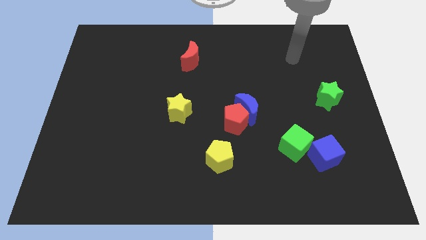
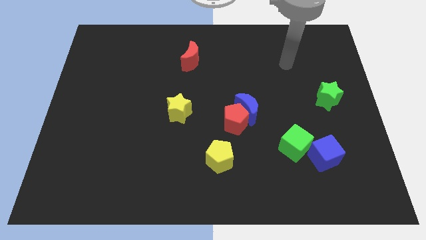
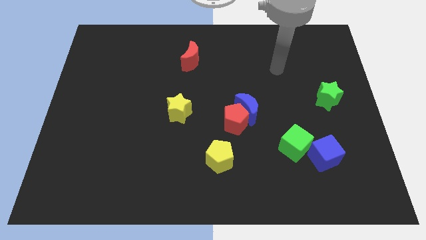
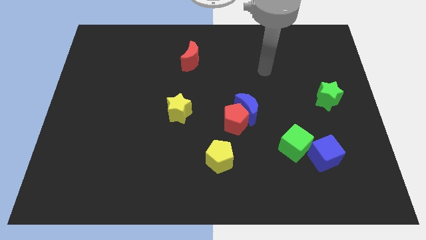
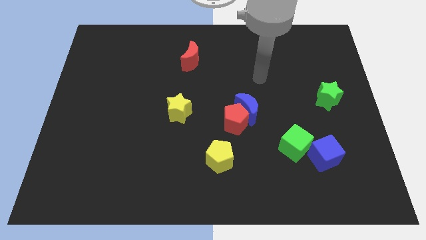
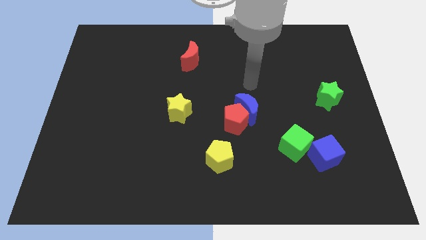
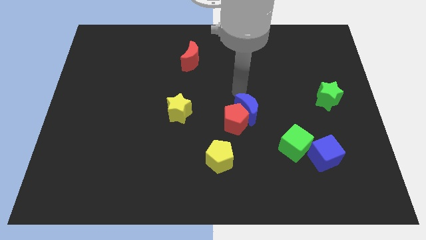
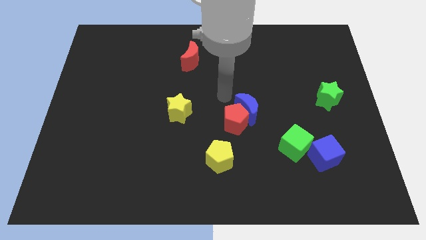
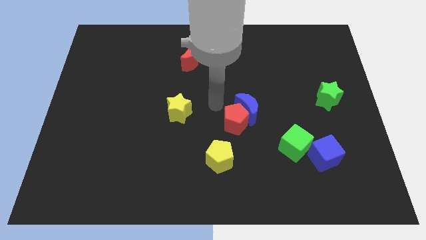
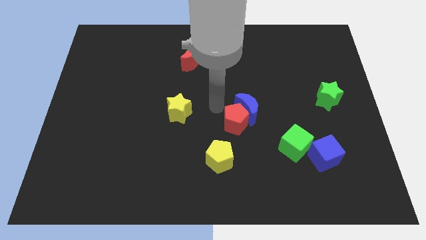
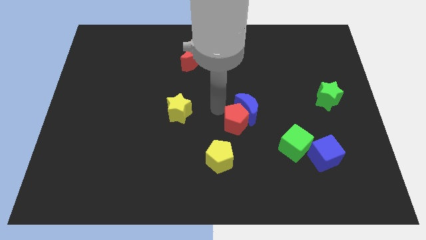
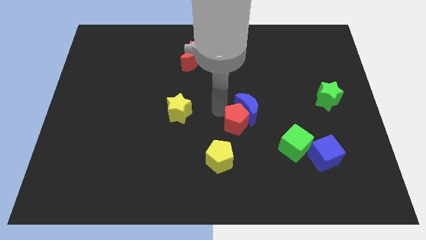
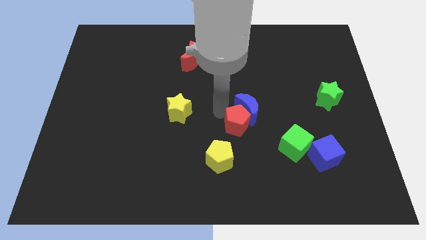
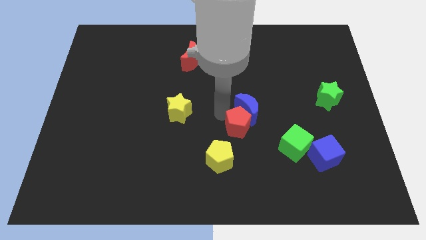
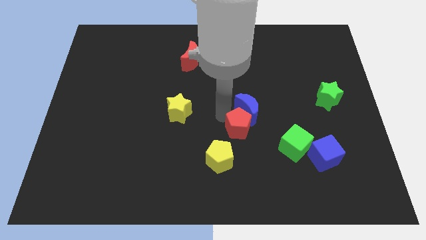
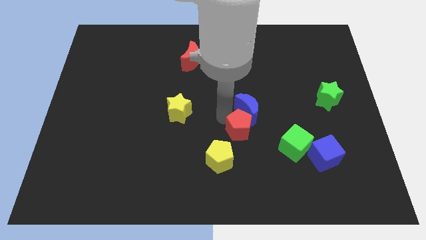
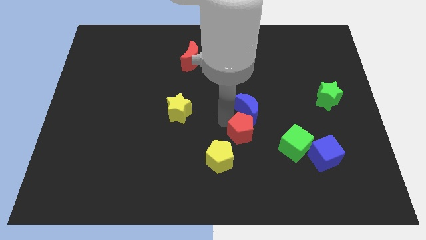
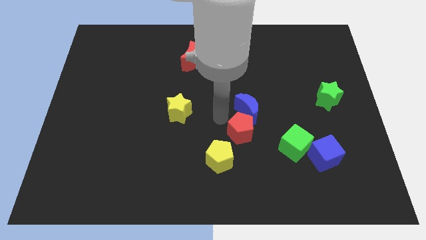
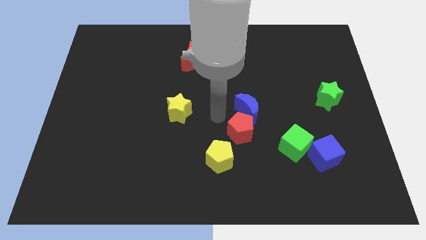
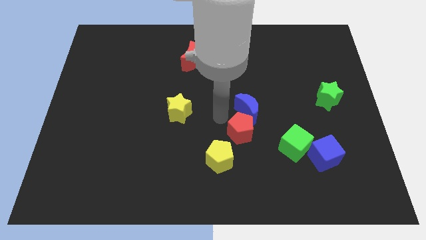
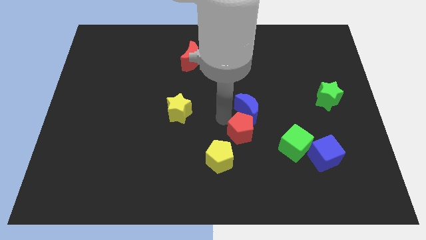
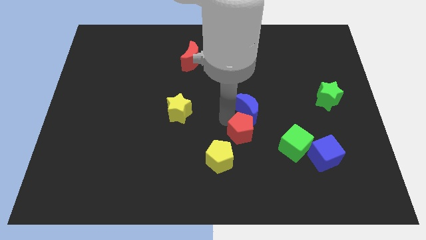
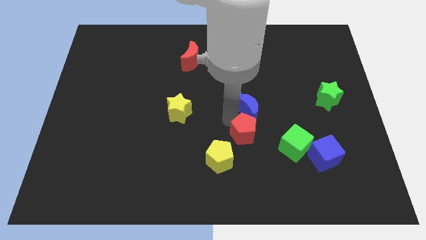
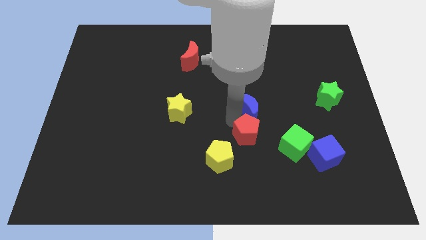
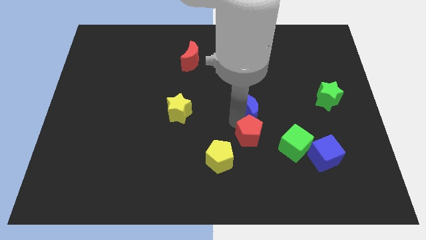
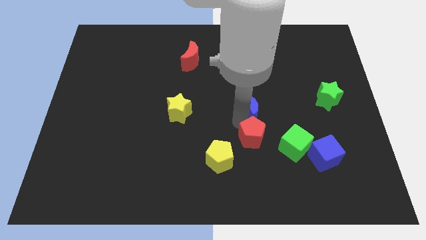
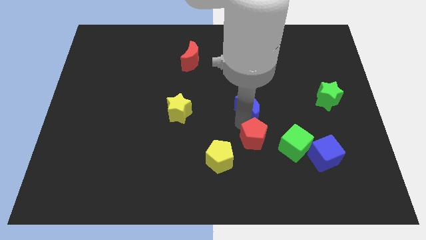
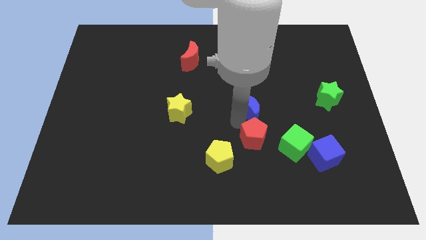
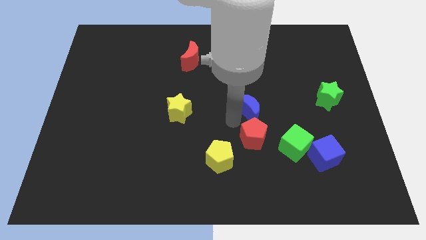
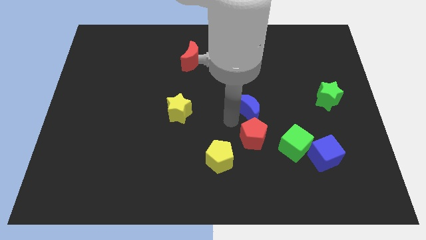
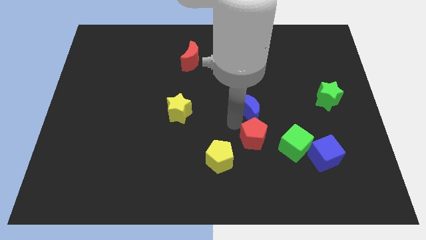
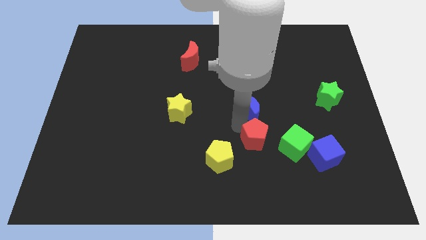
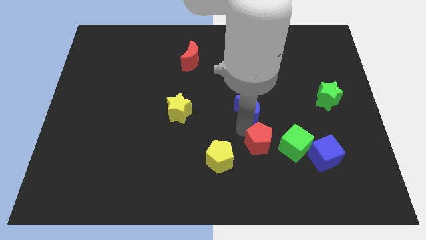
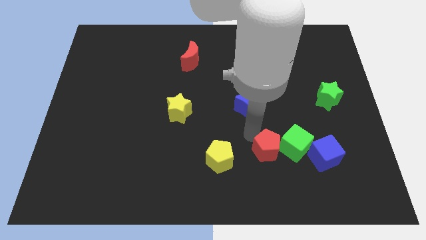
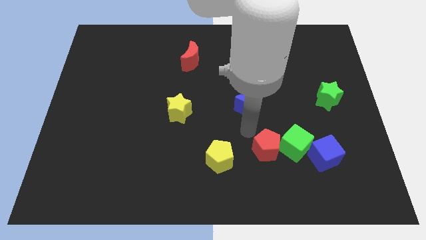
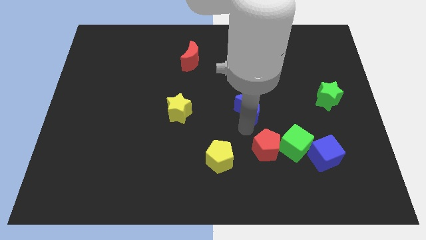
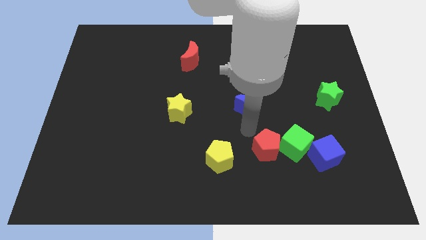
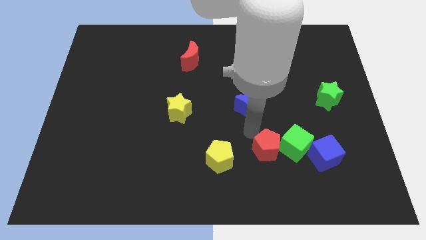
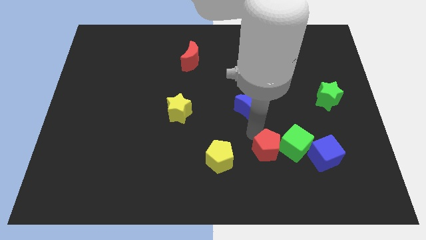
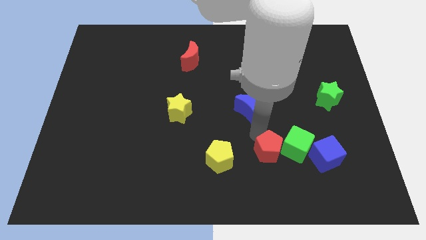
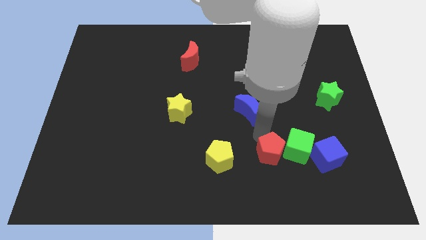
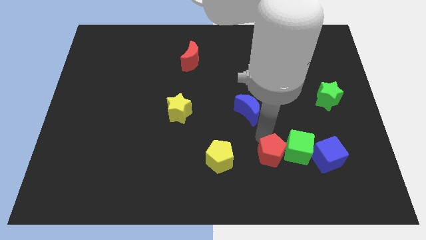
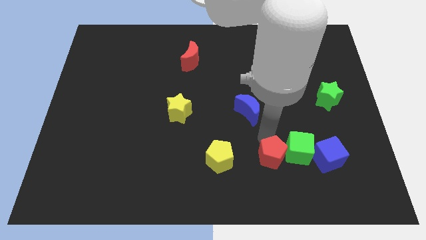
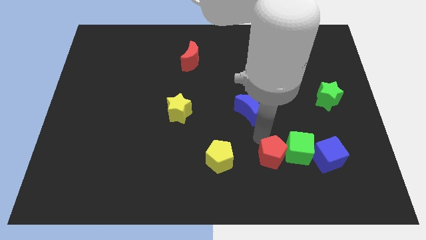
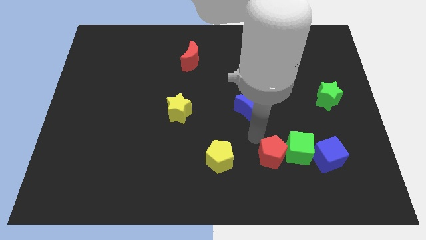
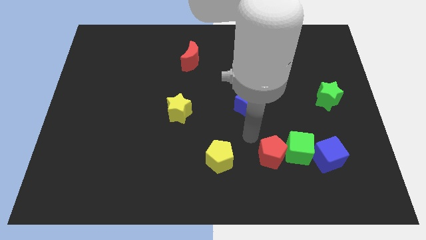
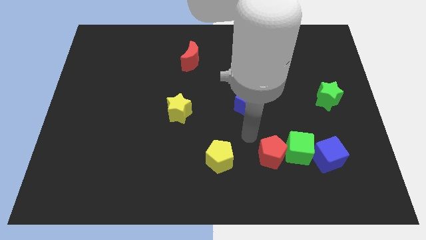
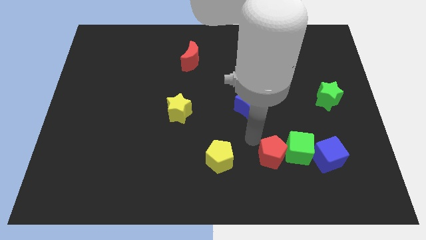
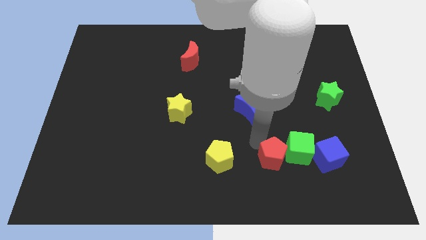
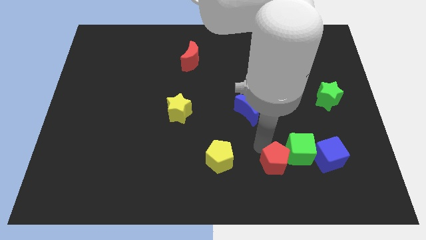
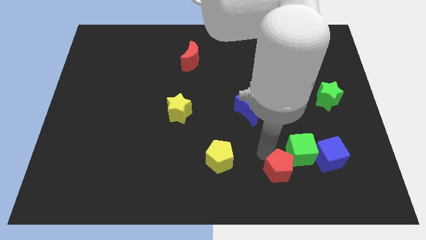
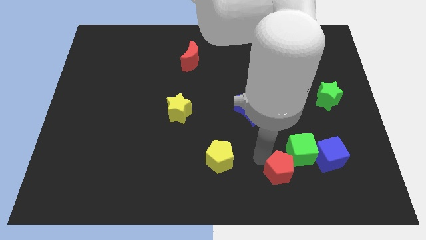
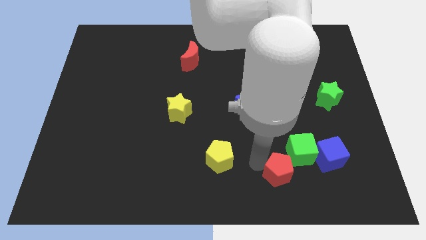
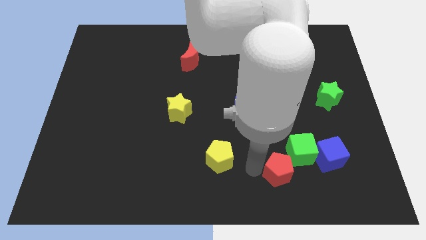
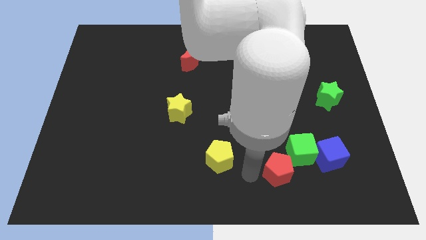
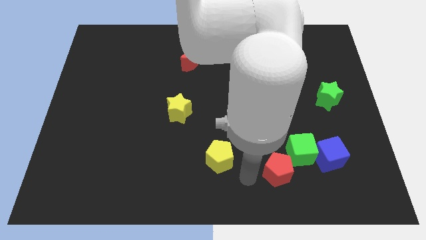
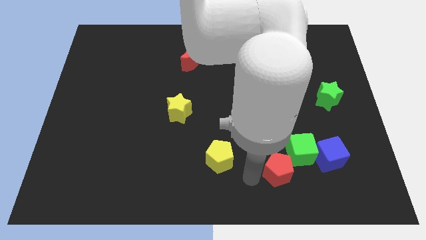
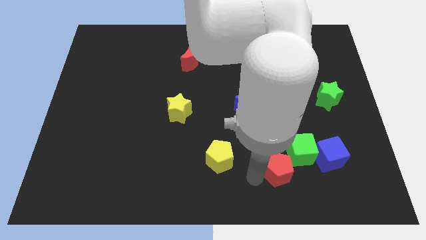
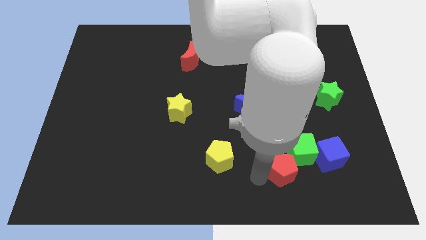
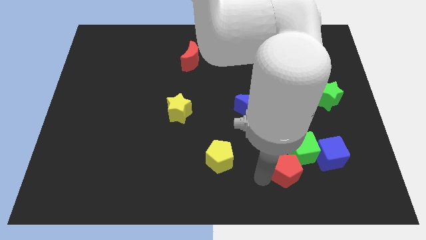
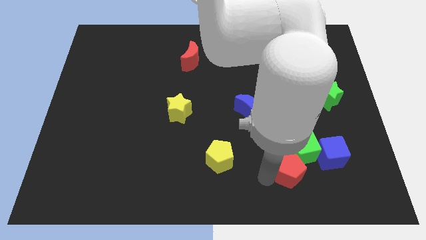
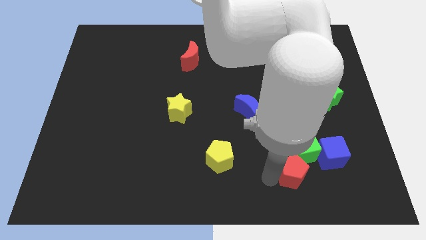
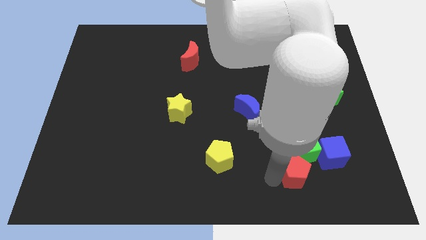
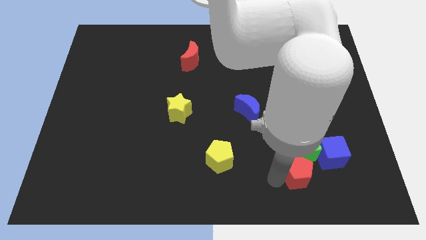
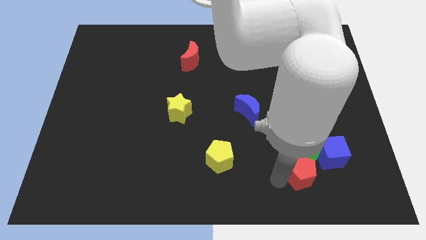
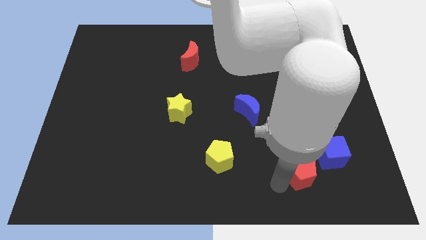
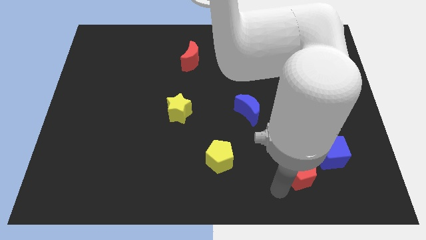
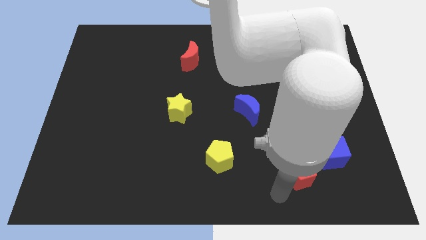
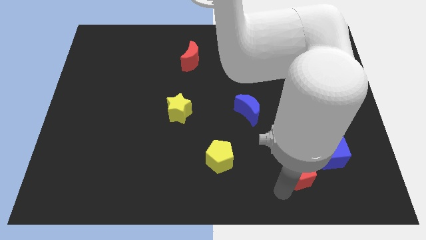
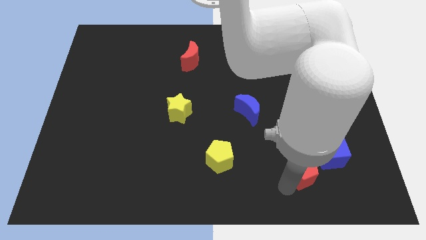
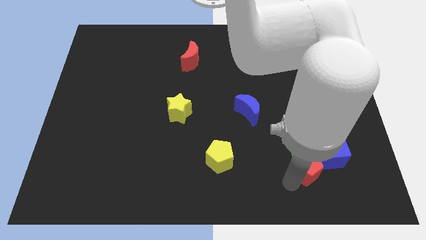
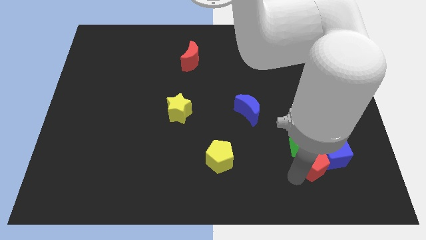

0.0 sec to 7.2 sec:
slide the red pentagon towards the blue cube
